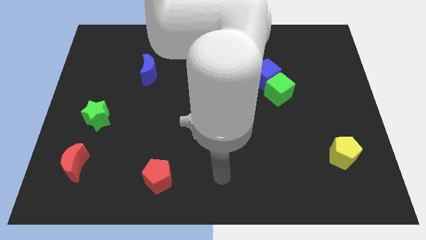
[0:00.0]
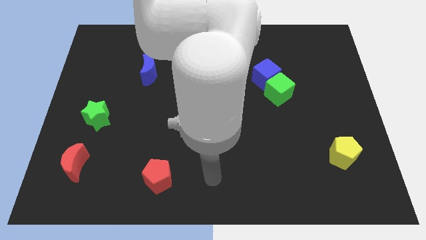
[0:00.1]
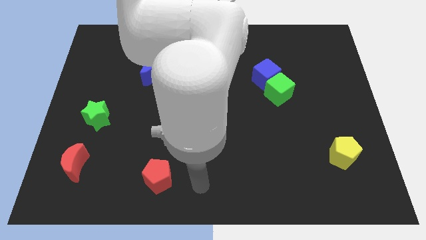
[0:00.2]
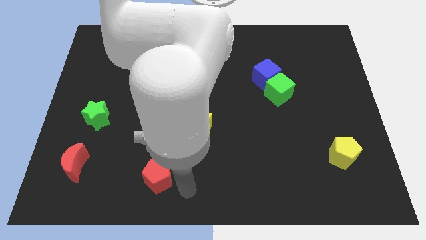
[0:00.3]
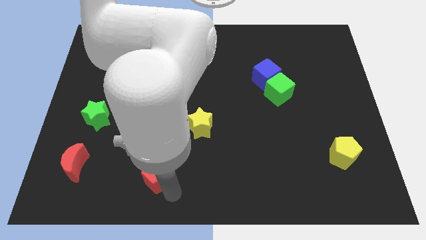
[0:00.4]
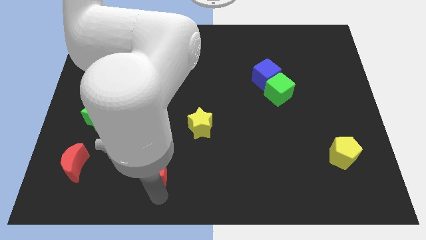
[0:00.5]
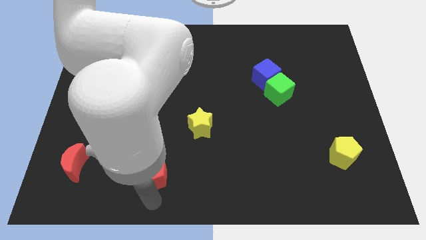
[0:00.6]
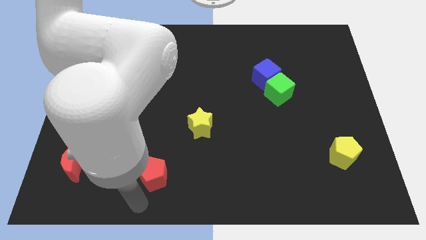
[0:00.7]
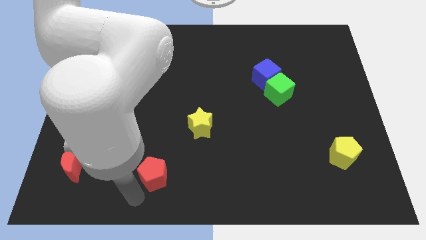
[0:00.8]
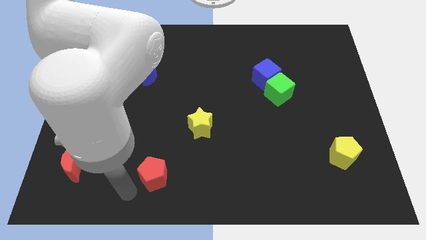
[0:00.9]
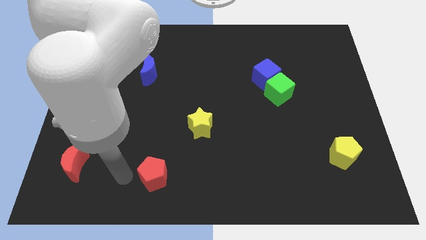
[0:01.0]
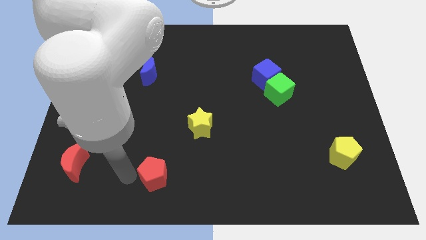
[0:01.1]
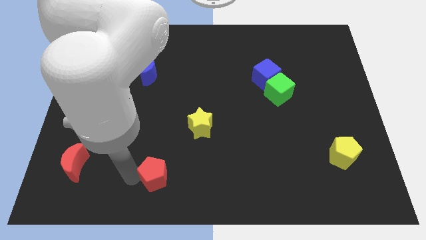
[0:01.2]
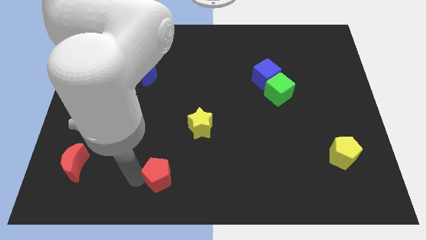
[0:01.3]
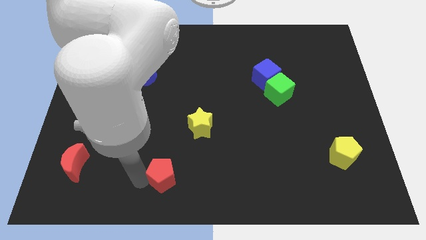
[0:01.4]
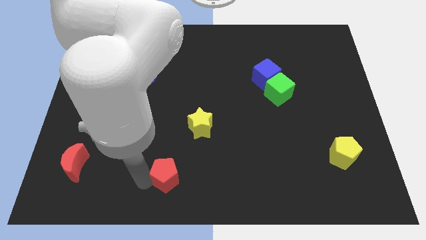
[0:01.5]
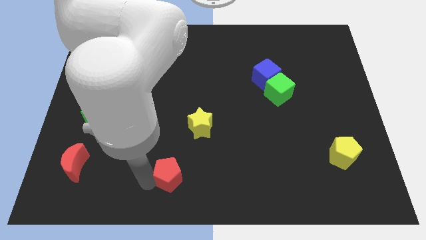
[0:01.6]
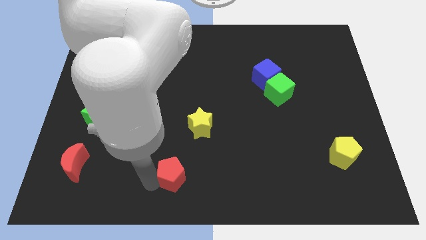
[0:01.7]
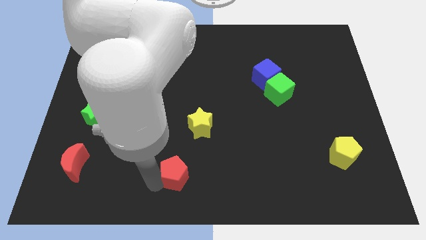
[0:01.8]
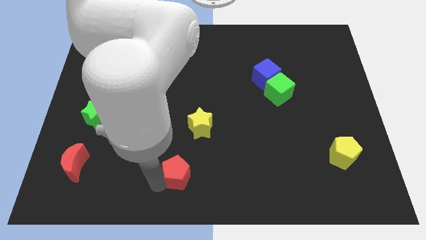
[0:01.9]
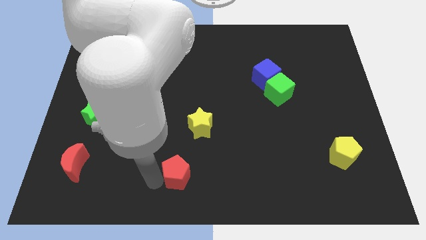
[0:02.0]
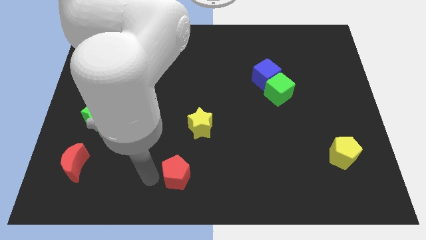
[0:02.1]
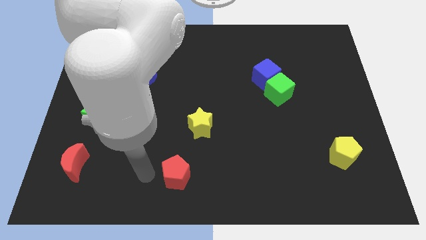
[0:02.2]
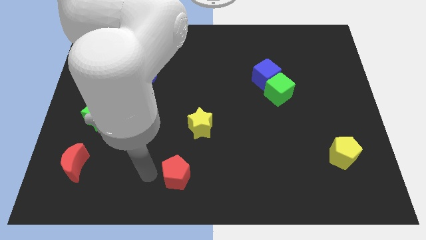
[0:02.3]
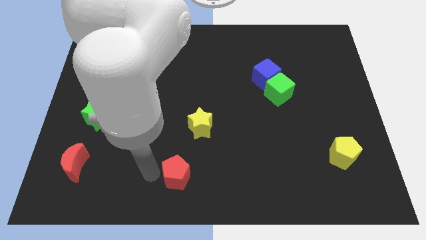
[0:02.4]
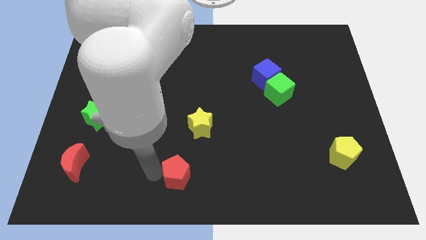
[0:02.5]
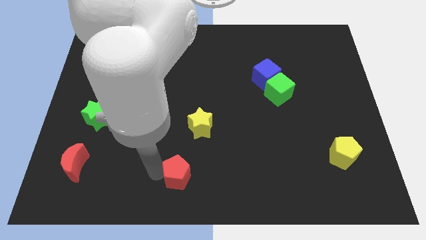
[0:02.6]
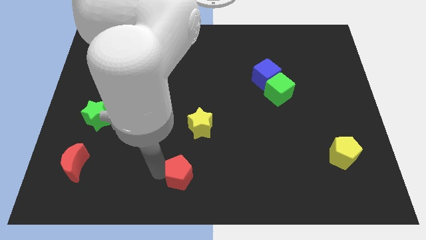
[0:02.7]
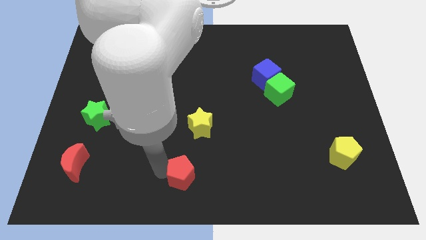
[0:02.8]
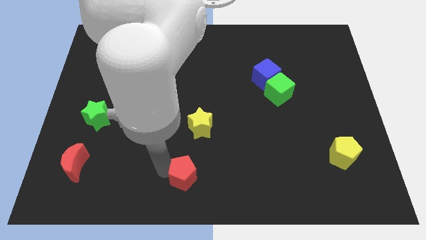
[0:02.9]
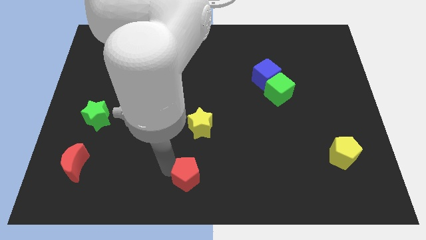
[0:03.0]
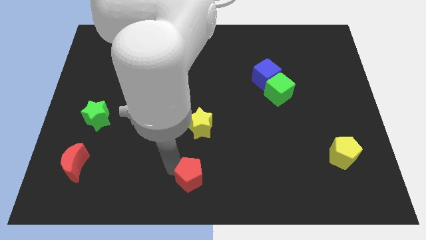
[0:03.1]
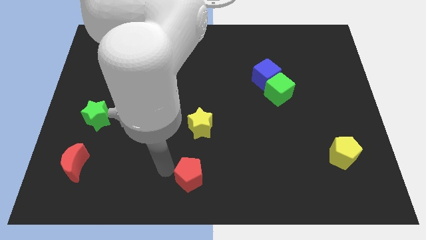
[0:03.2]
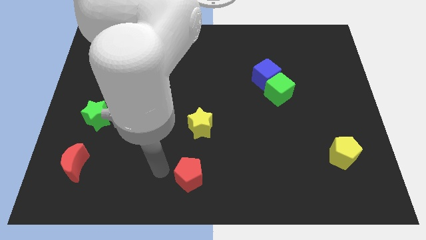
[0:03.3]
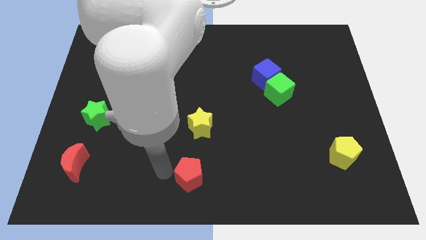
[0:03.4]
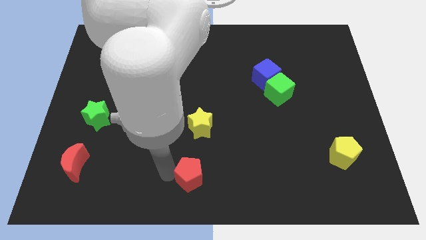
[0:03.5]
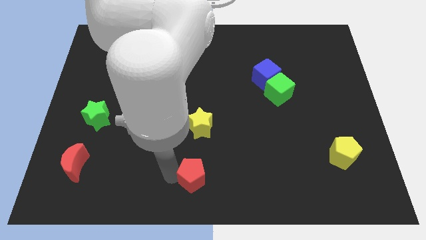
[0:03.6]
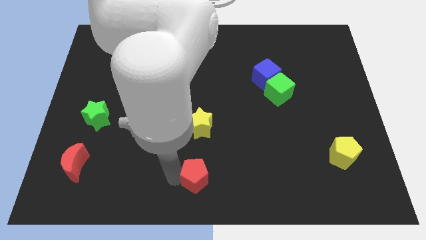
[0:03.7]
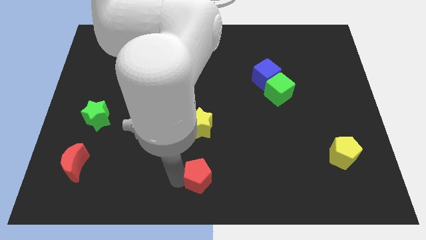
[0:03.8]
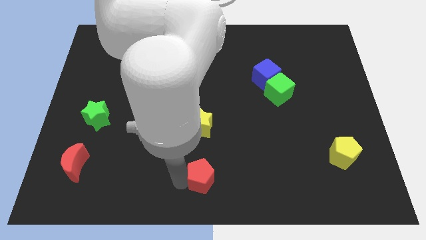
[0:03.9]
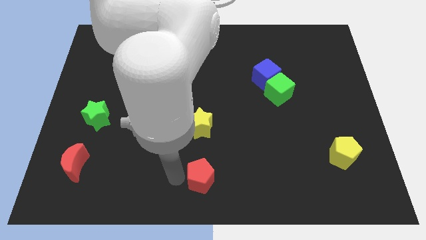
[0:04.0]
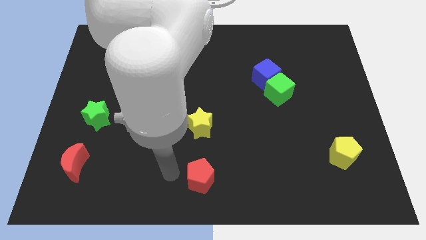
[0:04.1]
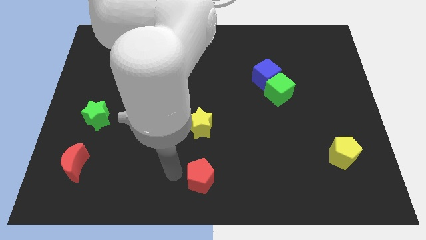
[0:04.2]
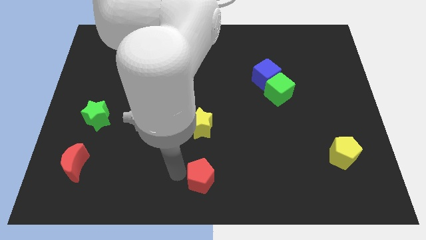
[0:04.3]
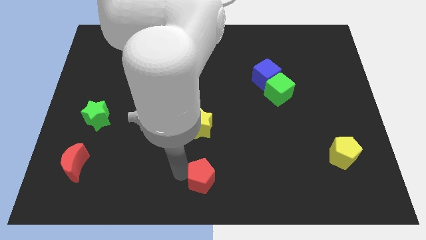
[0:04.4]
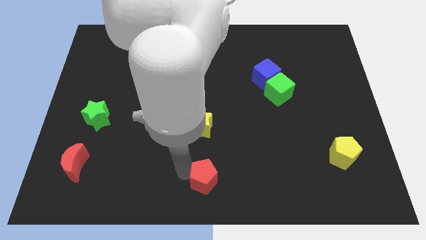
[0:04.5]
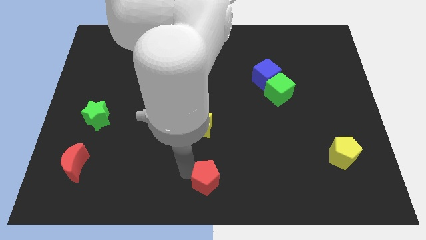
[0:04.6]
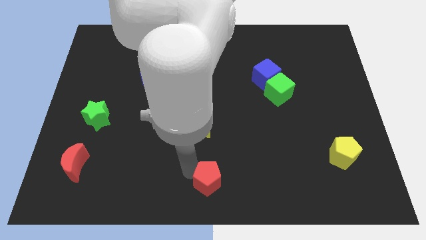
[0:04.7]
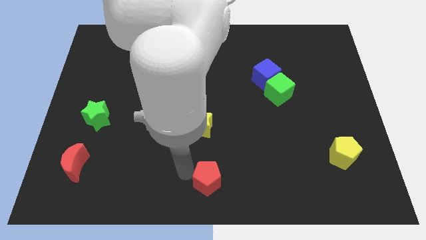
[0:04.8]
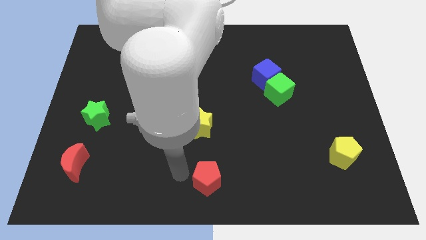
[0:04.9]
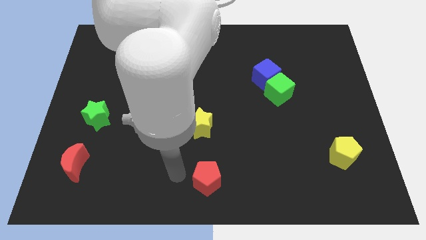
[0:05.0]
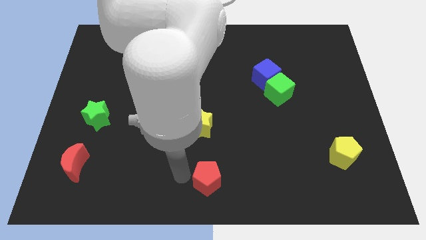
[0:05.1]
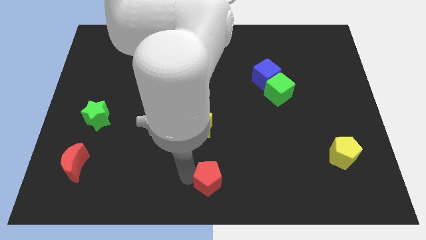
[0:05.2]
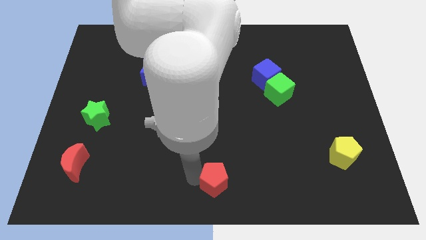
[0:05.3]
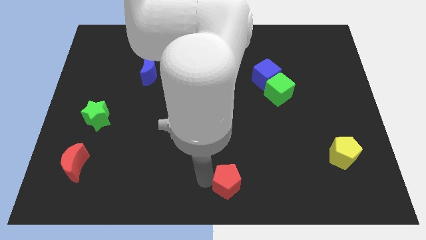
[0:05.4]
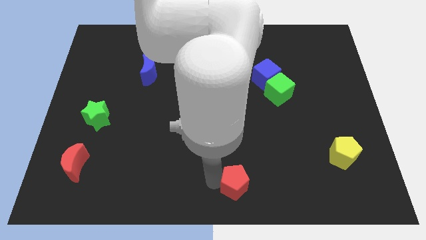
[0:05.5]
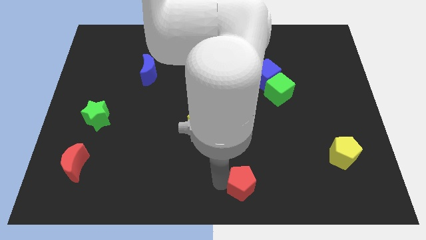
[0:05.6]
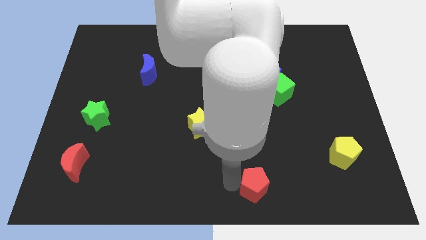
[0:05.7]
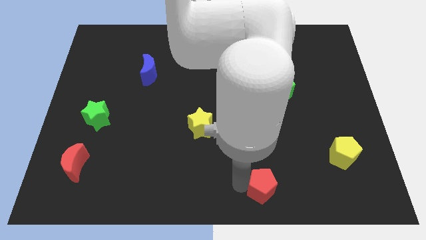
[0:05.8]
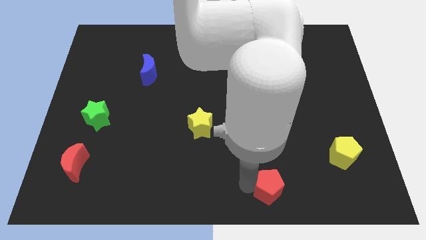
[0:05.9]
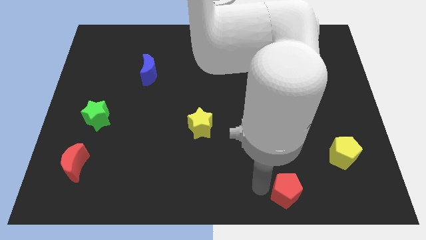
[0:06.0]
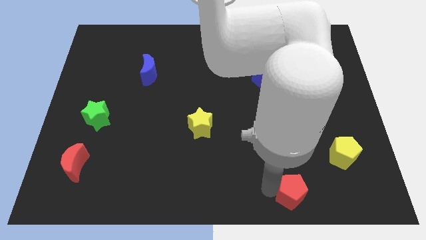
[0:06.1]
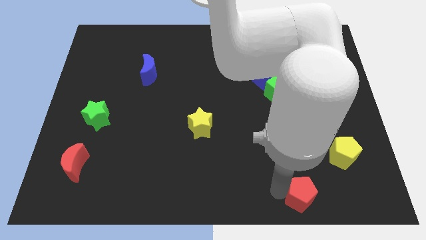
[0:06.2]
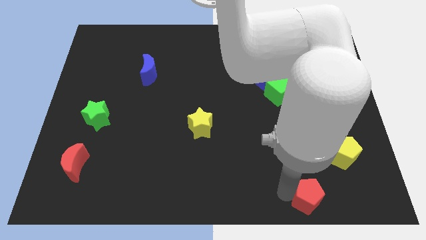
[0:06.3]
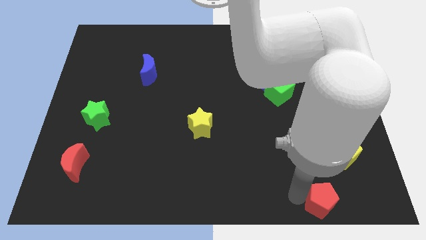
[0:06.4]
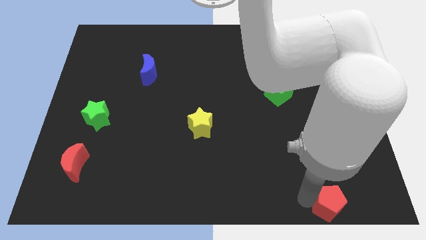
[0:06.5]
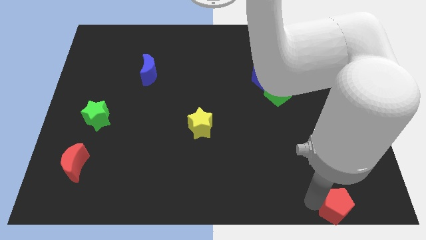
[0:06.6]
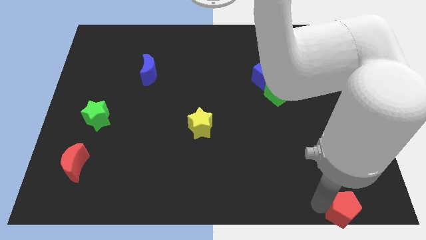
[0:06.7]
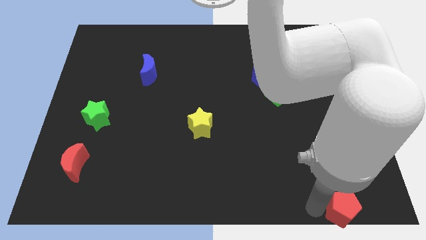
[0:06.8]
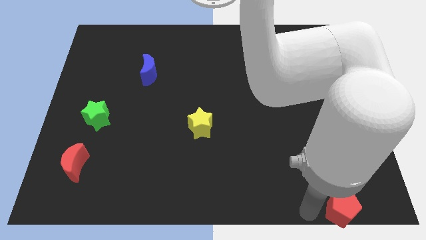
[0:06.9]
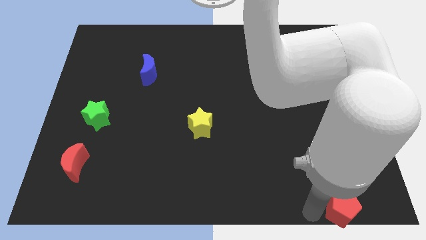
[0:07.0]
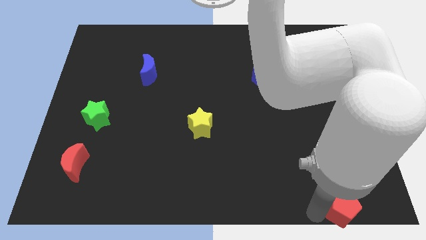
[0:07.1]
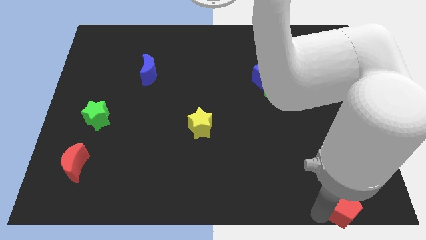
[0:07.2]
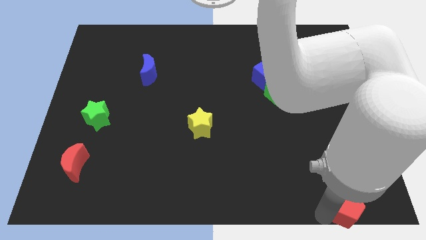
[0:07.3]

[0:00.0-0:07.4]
put the red pentagon to the bottom right
